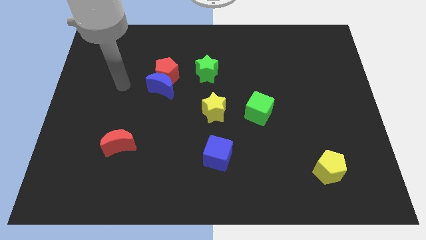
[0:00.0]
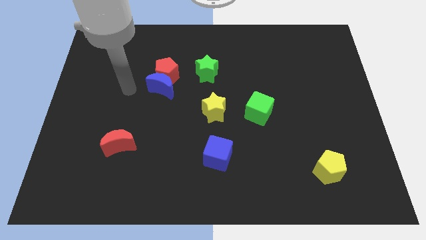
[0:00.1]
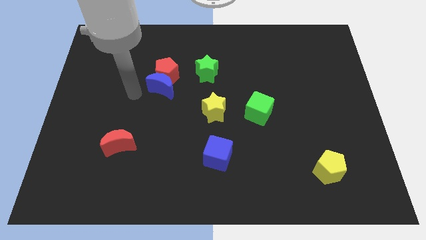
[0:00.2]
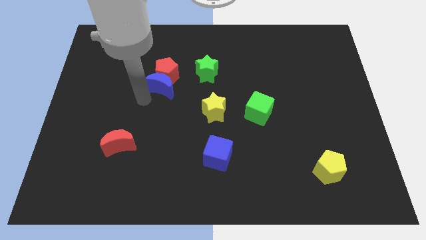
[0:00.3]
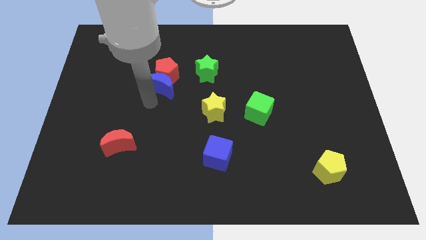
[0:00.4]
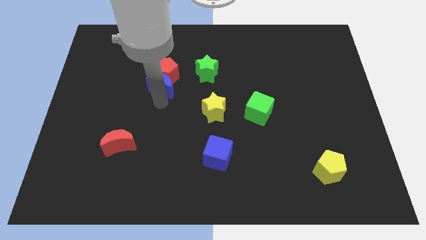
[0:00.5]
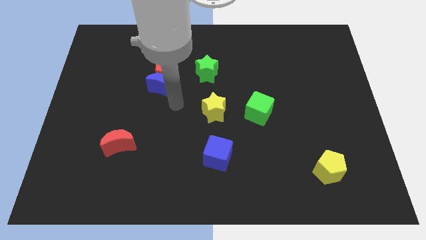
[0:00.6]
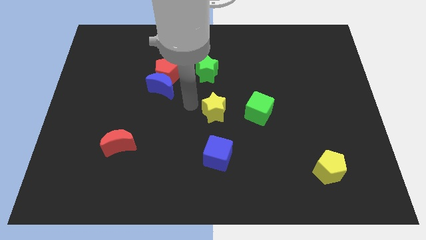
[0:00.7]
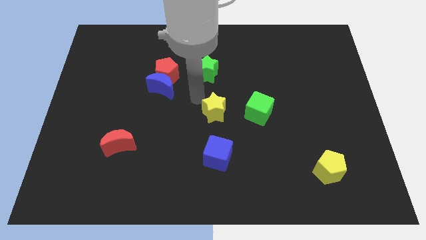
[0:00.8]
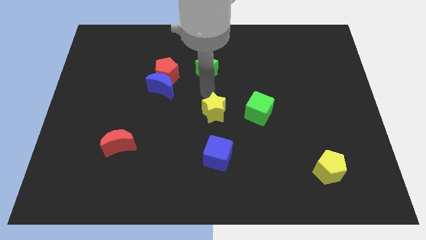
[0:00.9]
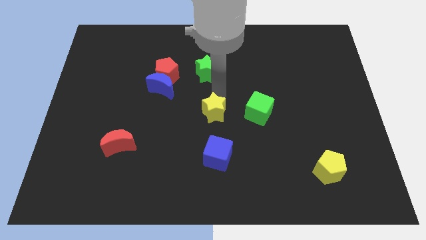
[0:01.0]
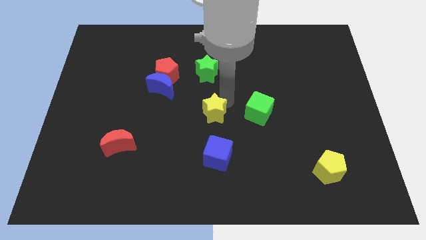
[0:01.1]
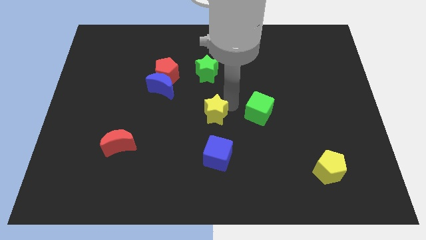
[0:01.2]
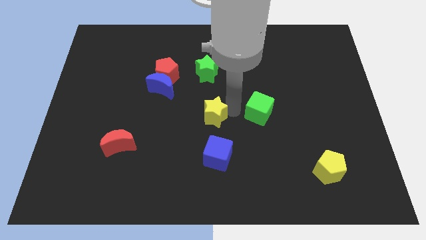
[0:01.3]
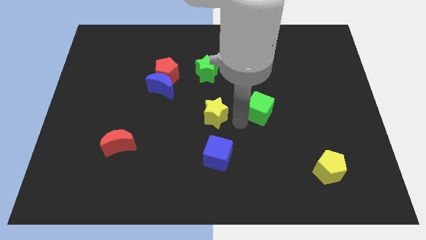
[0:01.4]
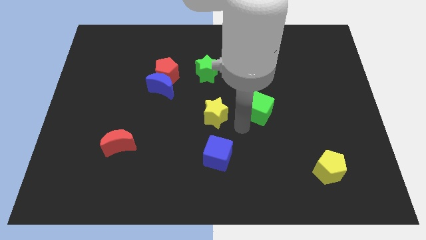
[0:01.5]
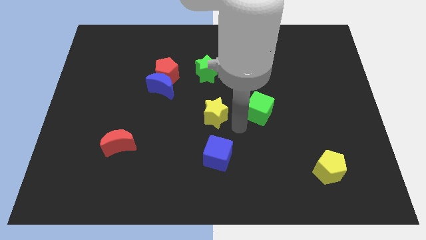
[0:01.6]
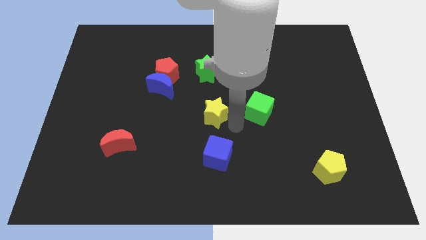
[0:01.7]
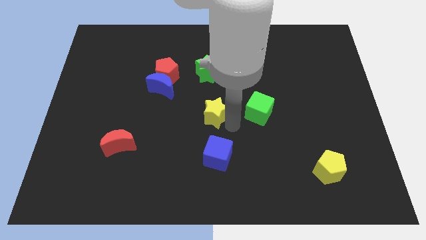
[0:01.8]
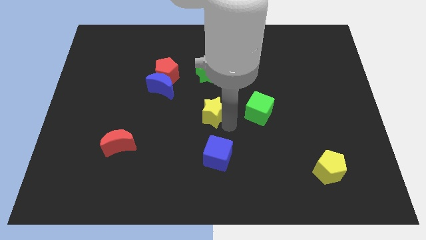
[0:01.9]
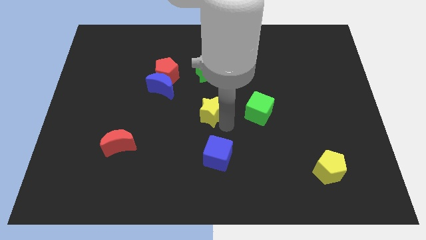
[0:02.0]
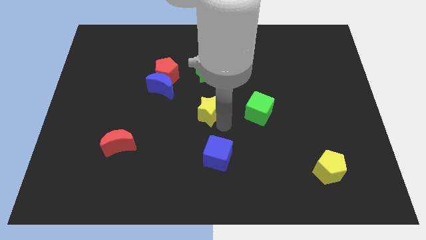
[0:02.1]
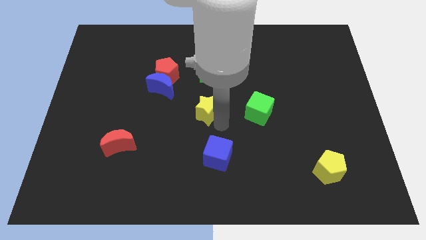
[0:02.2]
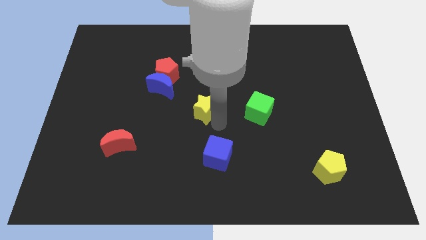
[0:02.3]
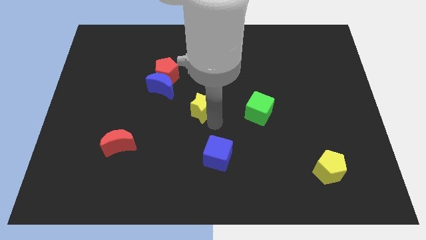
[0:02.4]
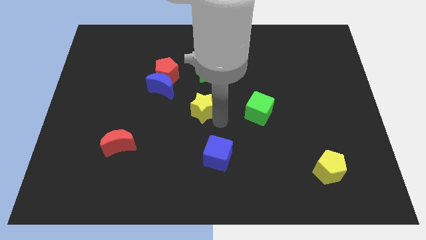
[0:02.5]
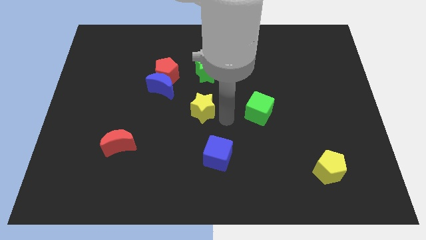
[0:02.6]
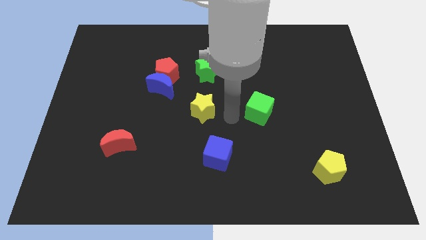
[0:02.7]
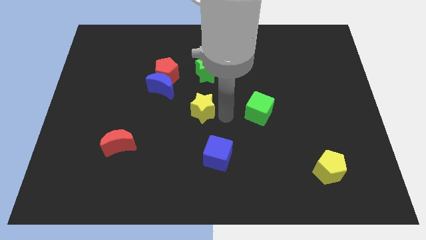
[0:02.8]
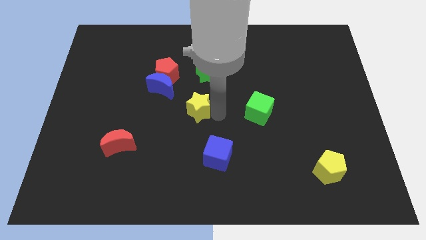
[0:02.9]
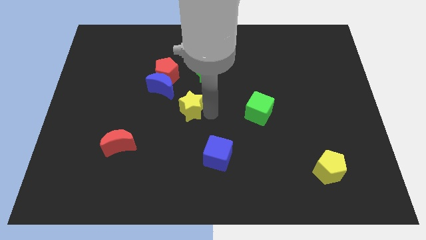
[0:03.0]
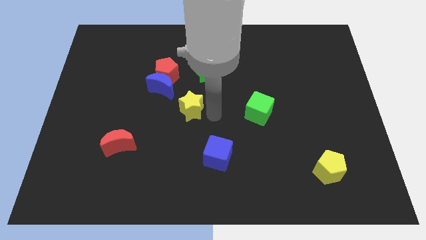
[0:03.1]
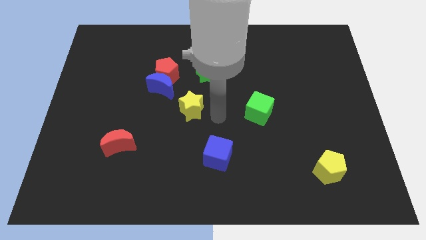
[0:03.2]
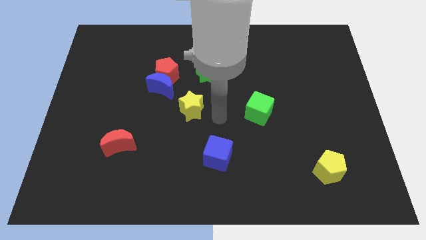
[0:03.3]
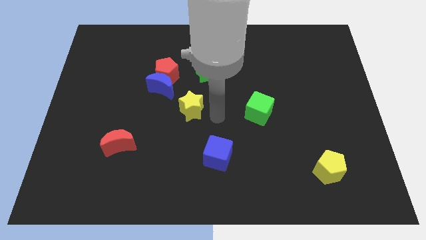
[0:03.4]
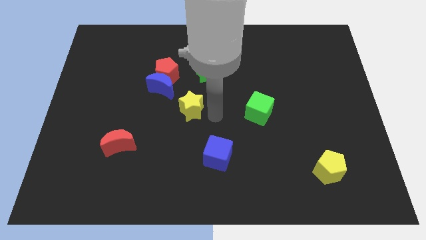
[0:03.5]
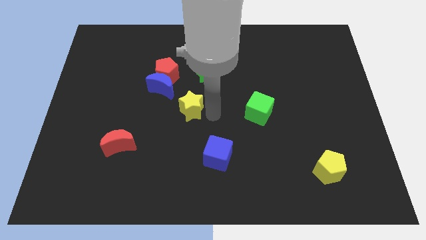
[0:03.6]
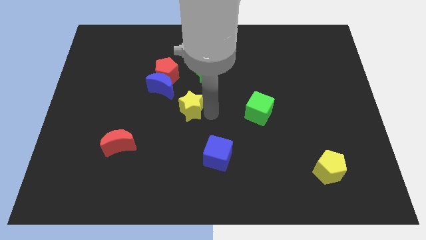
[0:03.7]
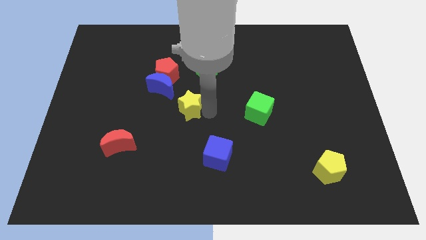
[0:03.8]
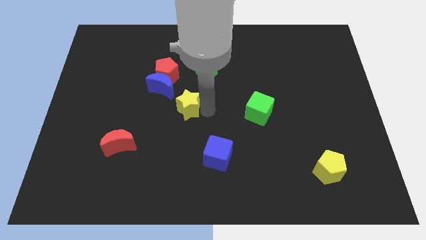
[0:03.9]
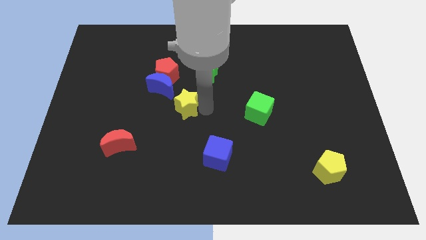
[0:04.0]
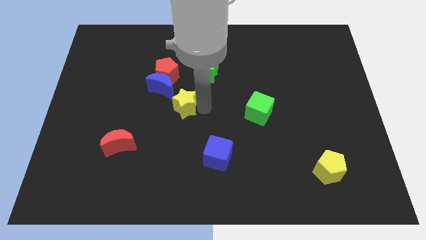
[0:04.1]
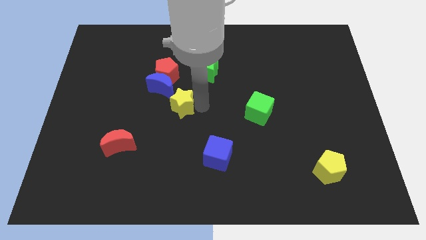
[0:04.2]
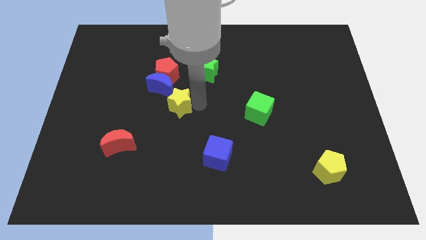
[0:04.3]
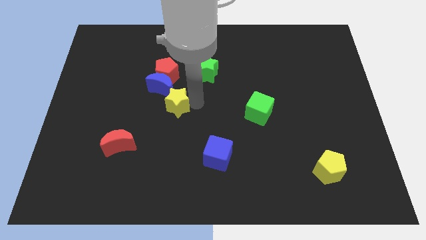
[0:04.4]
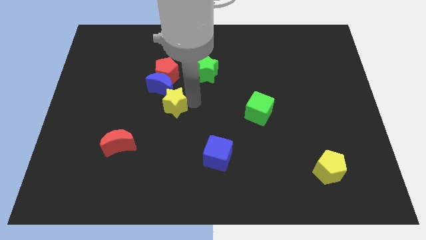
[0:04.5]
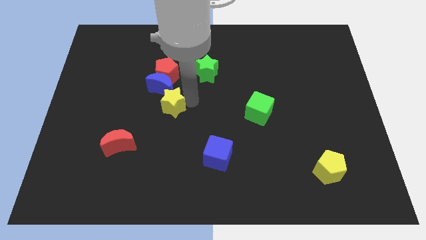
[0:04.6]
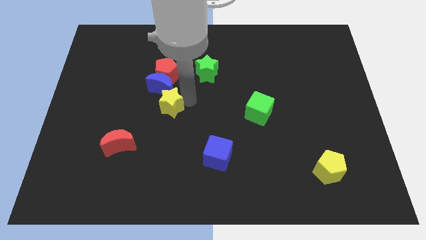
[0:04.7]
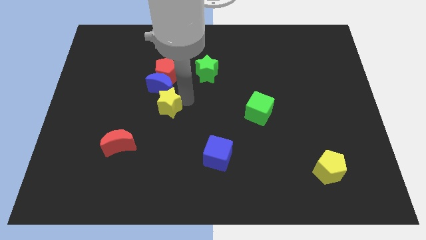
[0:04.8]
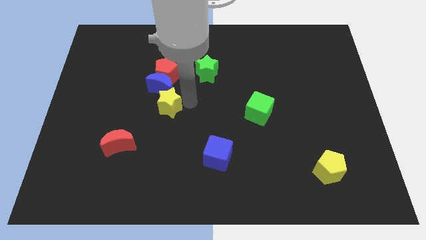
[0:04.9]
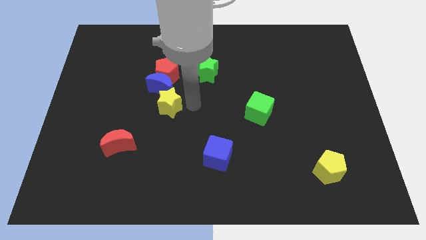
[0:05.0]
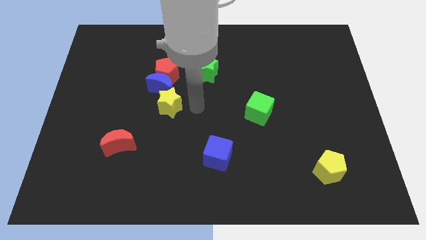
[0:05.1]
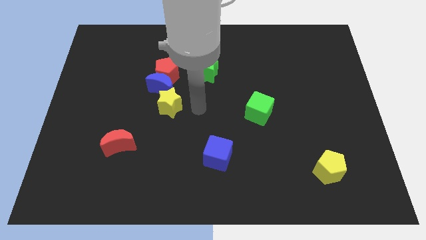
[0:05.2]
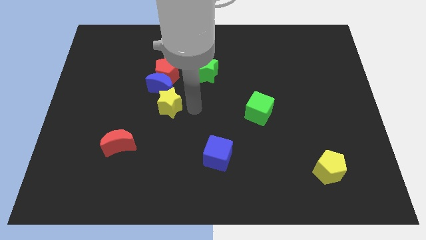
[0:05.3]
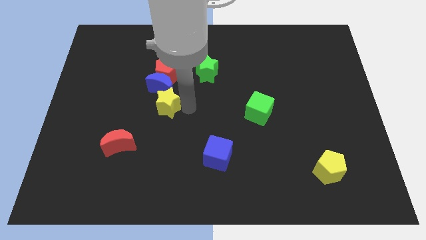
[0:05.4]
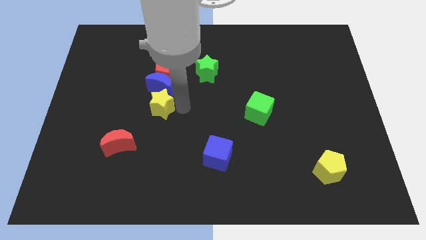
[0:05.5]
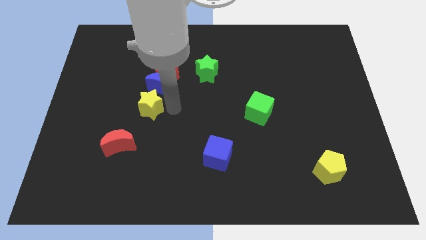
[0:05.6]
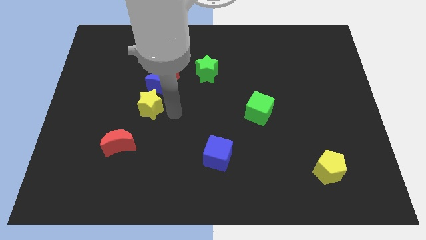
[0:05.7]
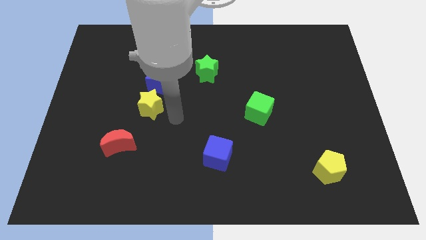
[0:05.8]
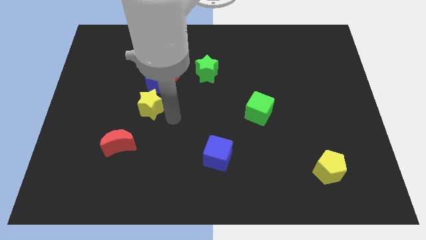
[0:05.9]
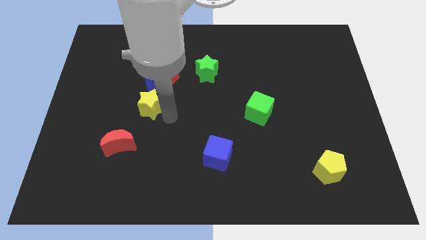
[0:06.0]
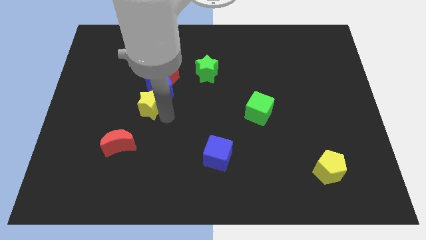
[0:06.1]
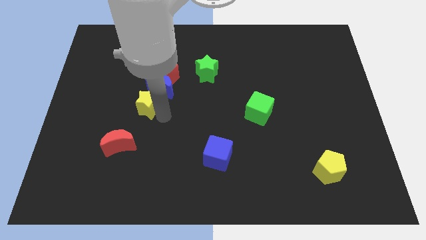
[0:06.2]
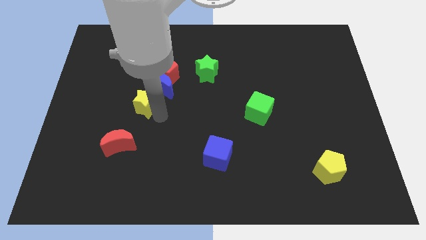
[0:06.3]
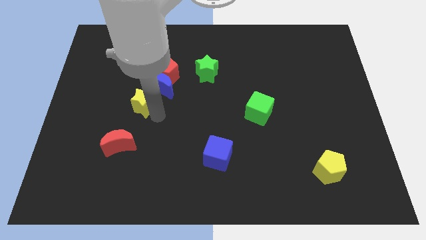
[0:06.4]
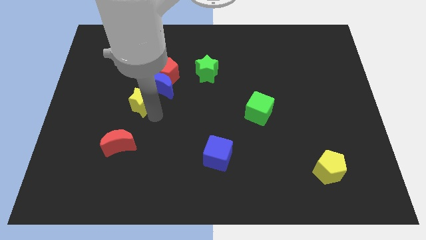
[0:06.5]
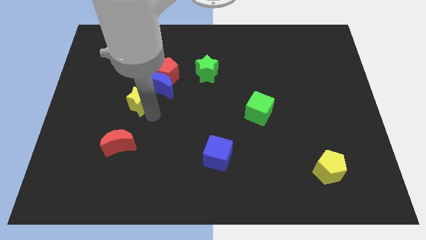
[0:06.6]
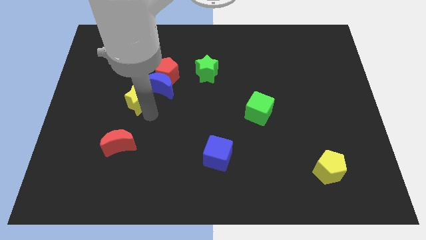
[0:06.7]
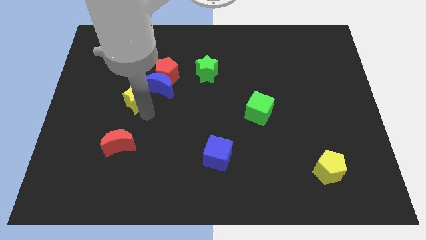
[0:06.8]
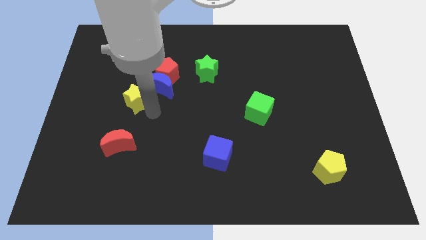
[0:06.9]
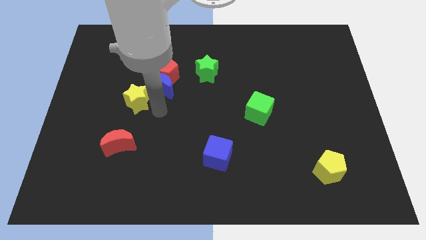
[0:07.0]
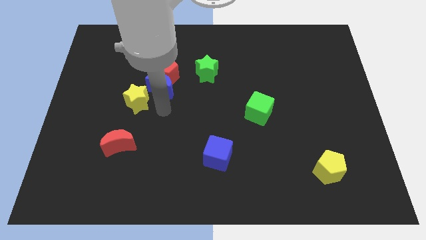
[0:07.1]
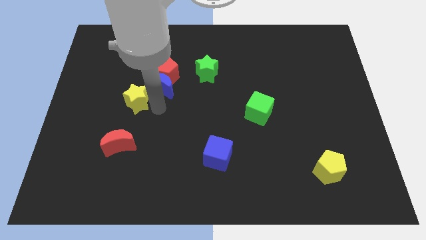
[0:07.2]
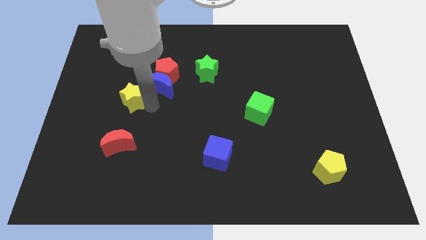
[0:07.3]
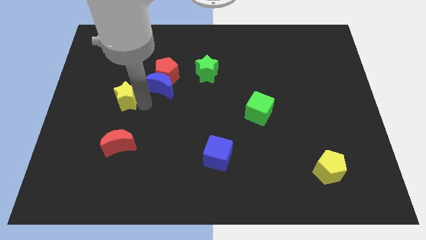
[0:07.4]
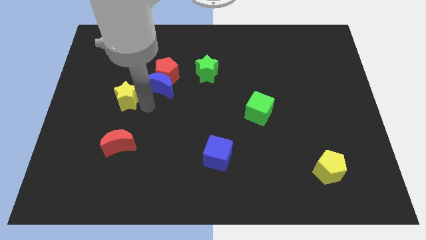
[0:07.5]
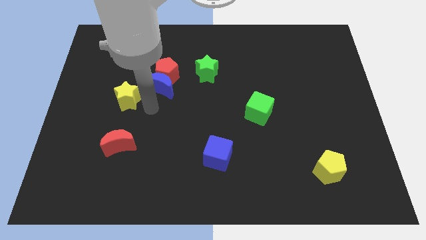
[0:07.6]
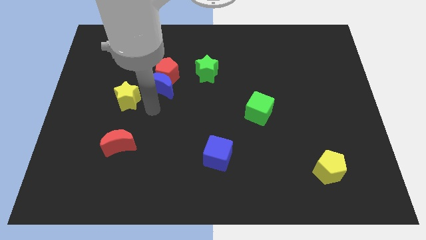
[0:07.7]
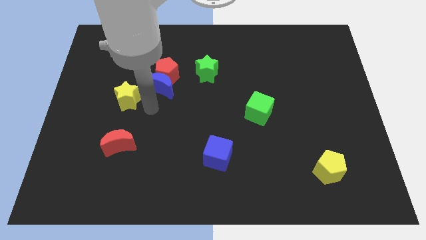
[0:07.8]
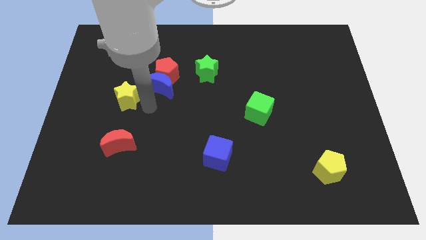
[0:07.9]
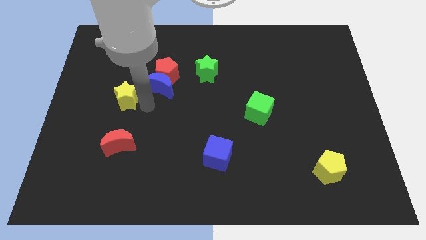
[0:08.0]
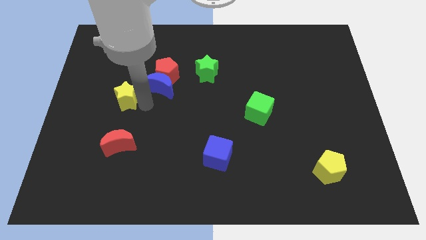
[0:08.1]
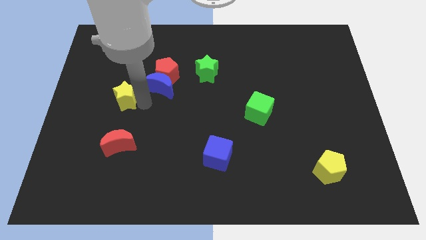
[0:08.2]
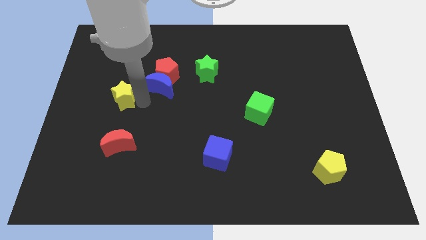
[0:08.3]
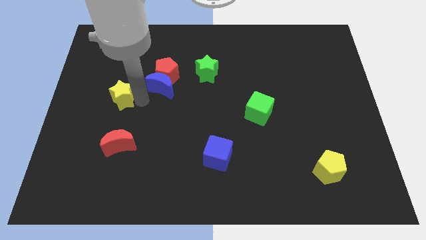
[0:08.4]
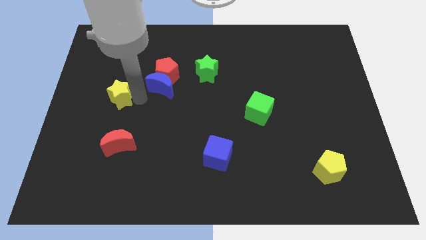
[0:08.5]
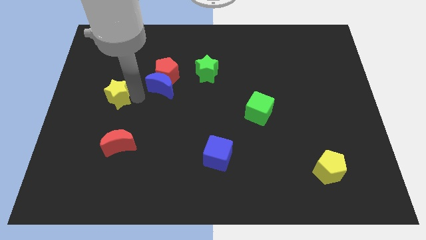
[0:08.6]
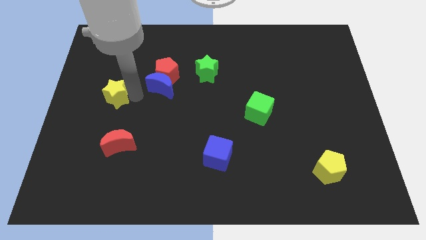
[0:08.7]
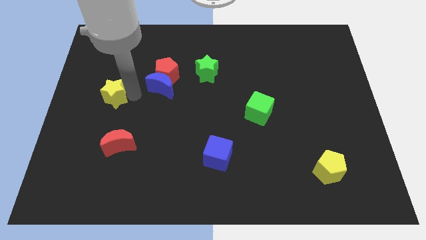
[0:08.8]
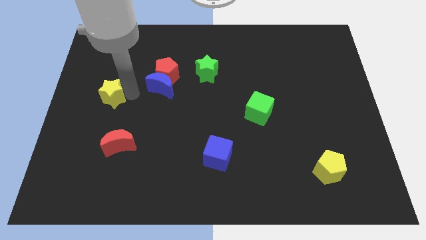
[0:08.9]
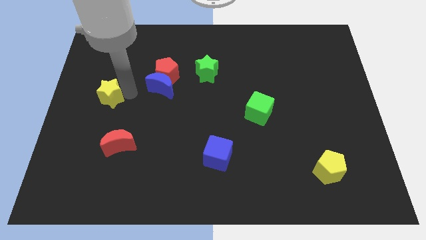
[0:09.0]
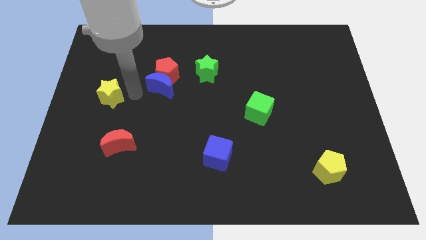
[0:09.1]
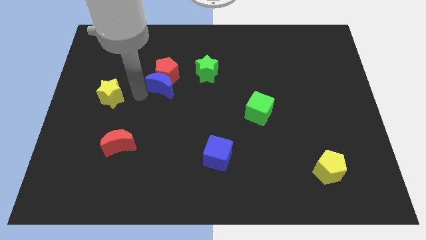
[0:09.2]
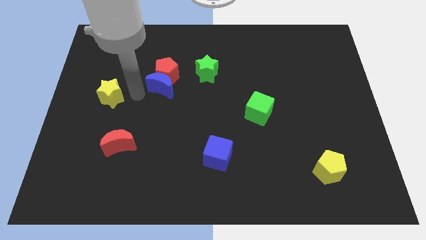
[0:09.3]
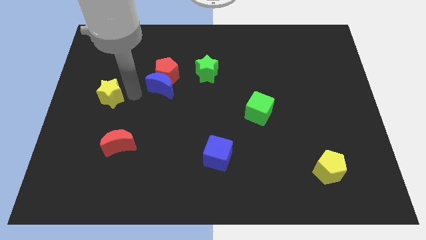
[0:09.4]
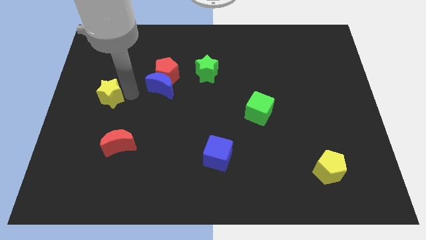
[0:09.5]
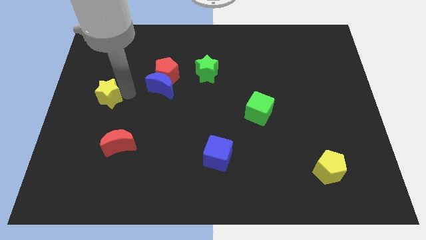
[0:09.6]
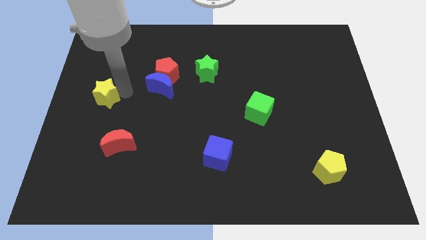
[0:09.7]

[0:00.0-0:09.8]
move the yellow star to the left side of the board
